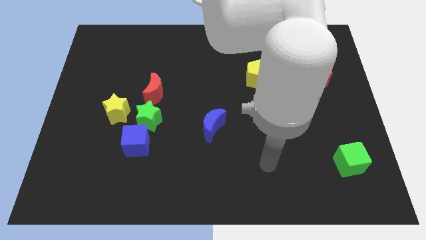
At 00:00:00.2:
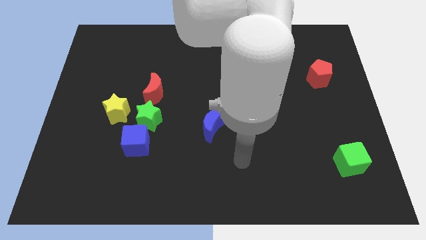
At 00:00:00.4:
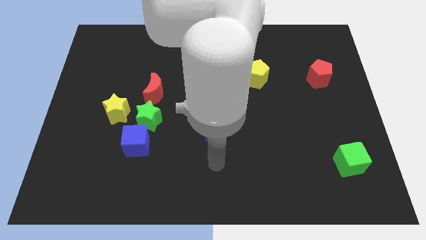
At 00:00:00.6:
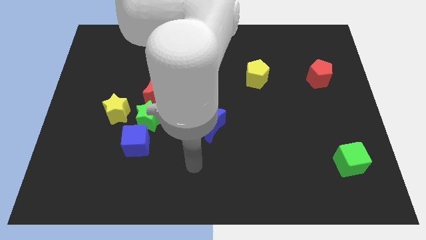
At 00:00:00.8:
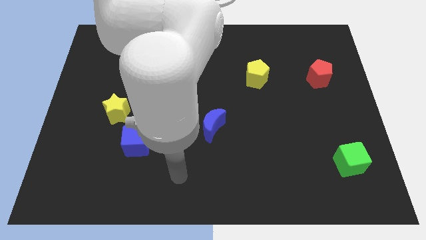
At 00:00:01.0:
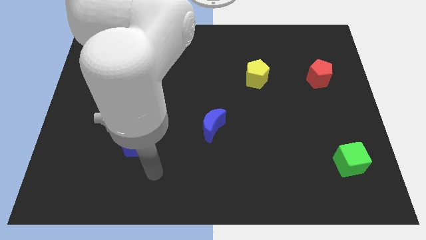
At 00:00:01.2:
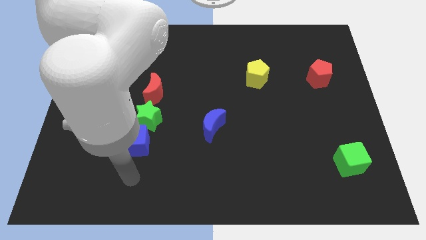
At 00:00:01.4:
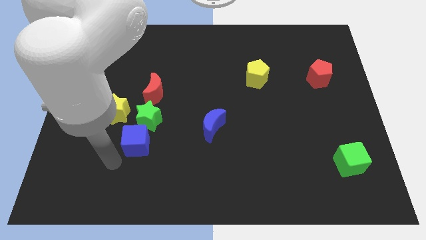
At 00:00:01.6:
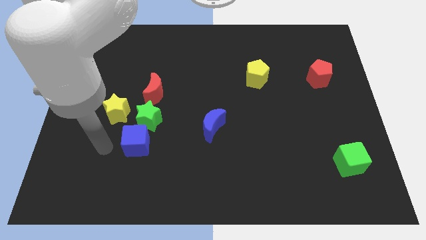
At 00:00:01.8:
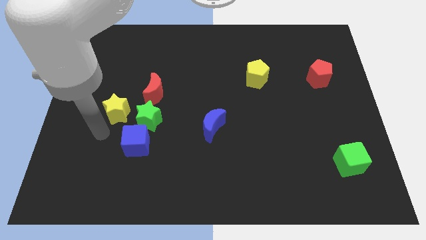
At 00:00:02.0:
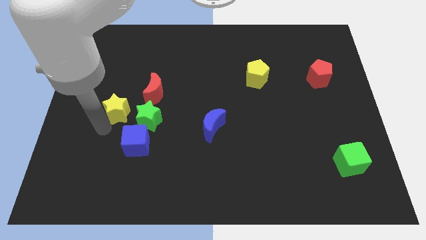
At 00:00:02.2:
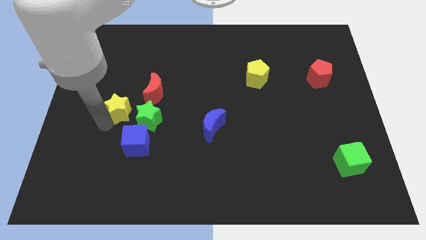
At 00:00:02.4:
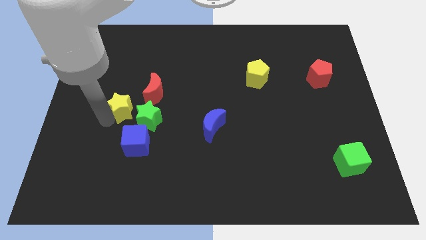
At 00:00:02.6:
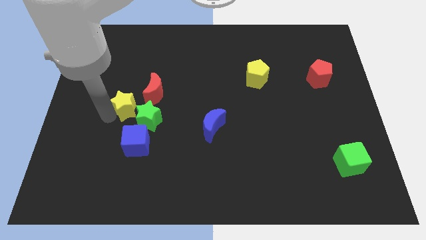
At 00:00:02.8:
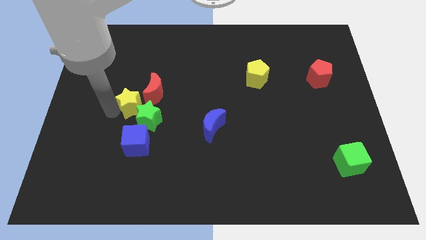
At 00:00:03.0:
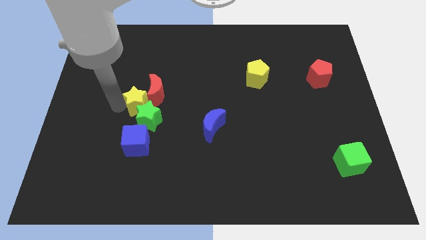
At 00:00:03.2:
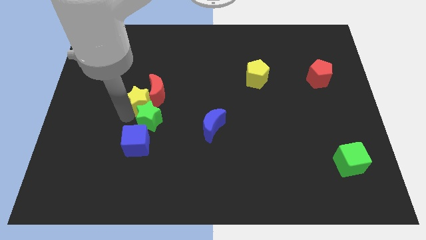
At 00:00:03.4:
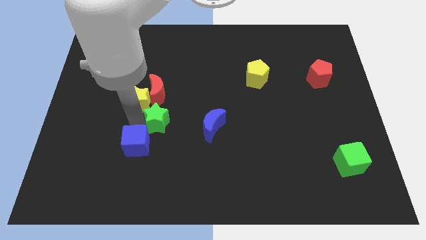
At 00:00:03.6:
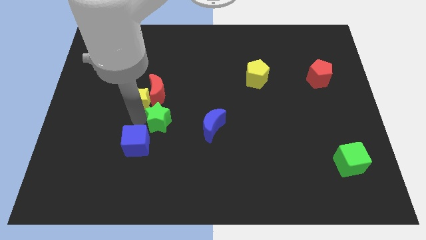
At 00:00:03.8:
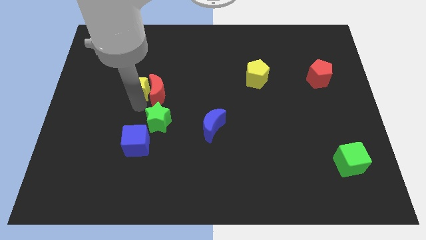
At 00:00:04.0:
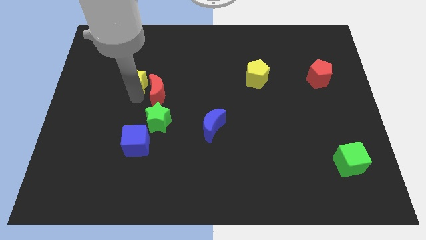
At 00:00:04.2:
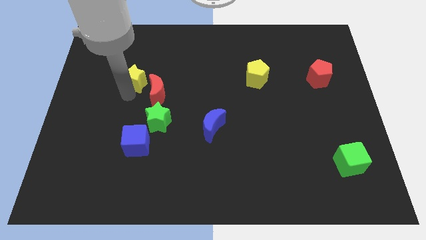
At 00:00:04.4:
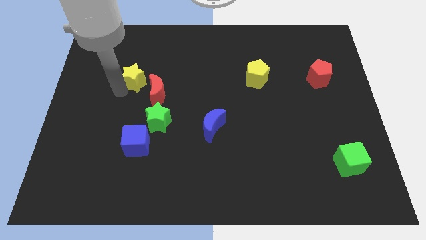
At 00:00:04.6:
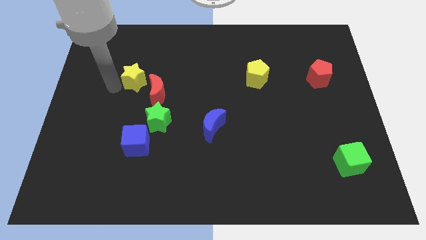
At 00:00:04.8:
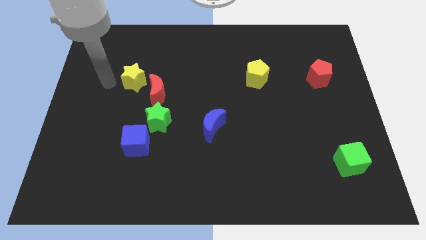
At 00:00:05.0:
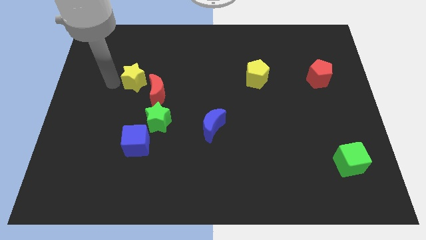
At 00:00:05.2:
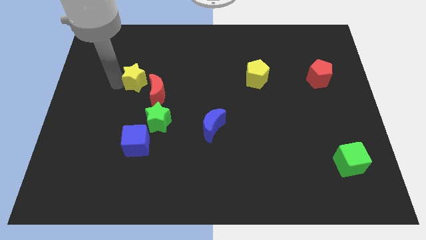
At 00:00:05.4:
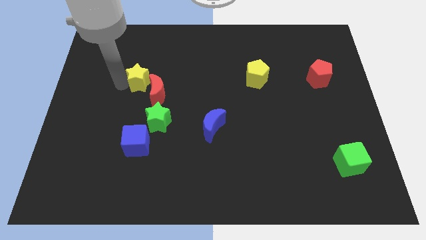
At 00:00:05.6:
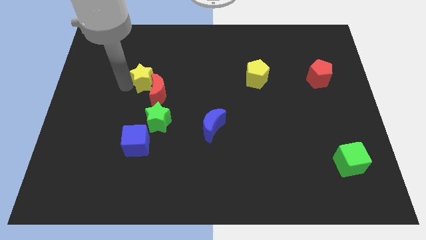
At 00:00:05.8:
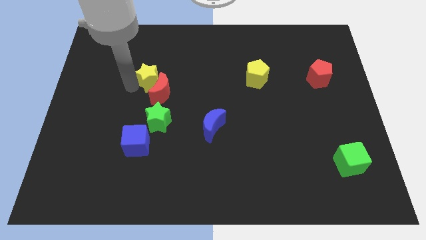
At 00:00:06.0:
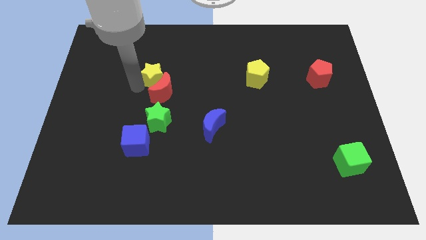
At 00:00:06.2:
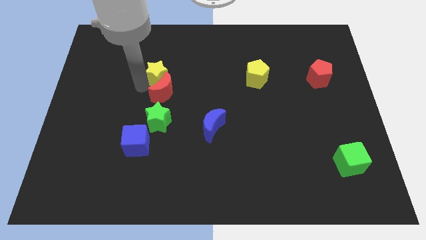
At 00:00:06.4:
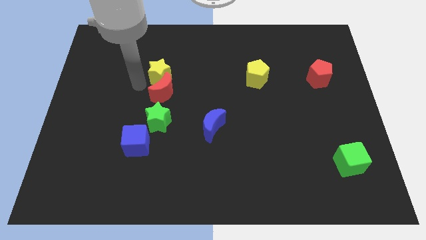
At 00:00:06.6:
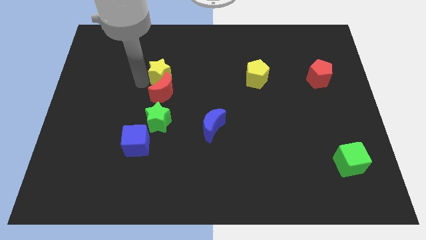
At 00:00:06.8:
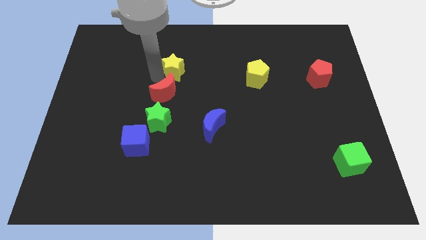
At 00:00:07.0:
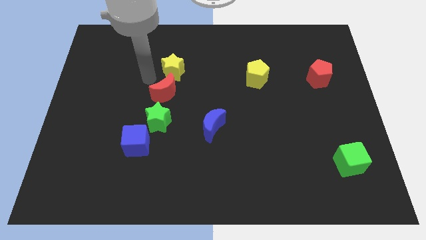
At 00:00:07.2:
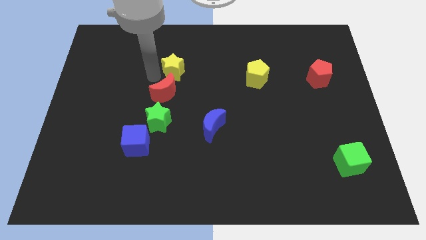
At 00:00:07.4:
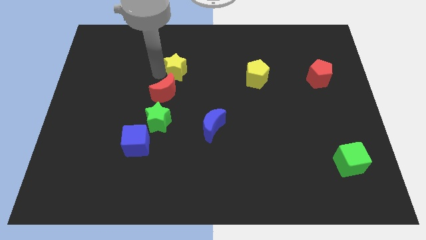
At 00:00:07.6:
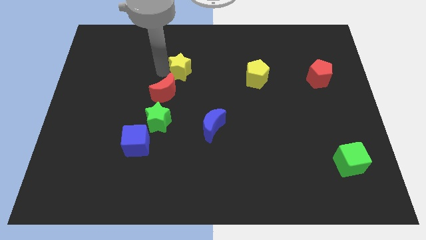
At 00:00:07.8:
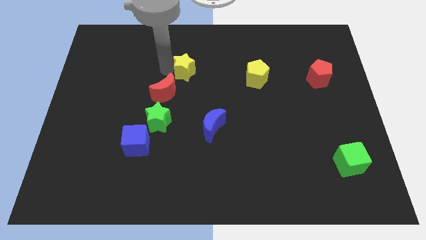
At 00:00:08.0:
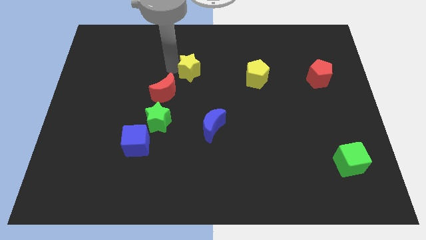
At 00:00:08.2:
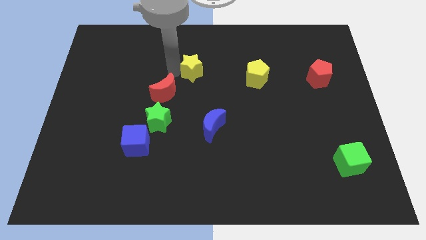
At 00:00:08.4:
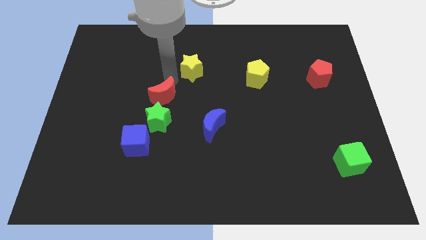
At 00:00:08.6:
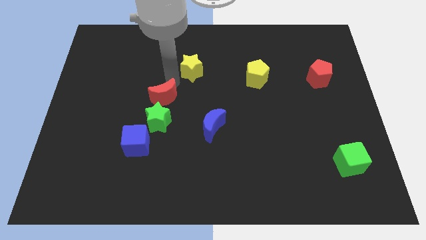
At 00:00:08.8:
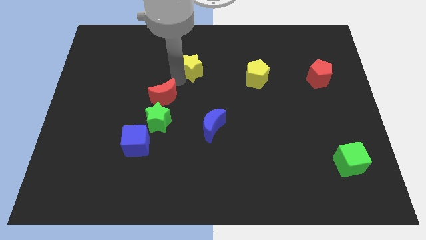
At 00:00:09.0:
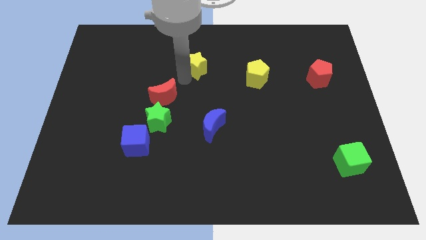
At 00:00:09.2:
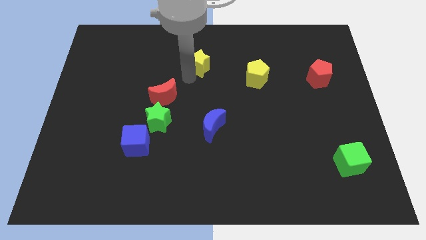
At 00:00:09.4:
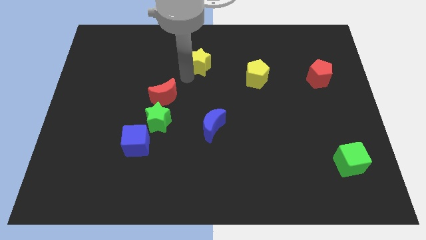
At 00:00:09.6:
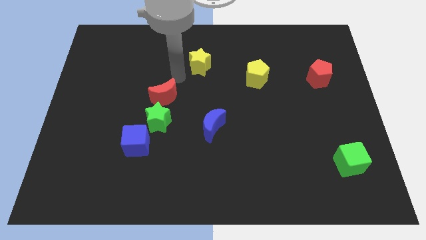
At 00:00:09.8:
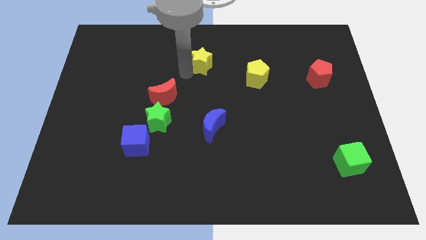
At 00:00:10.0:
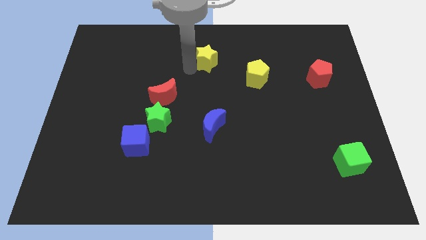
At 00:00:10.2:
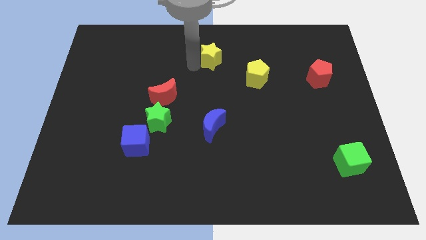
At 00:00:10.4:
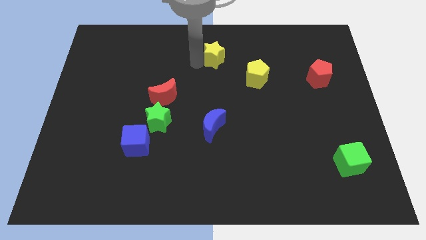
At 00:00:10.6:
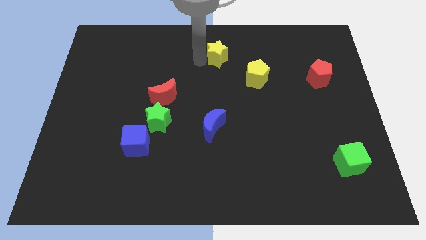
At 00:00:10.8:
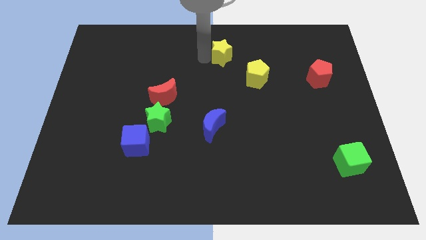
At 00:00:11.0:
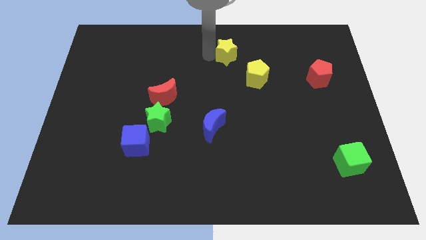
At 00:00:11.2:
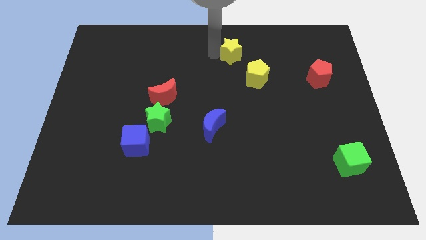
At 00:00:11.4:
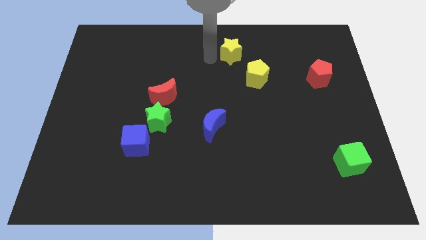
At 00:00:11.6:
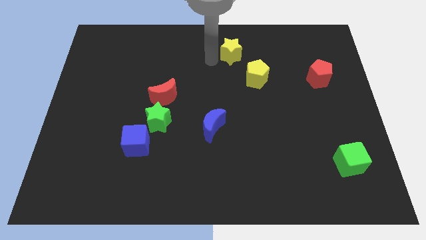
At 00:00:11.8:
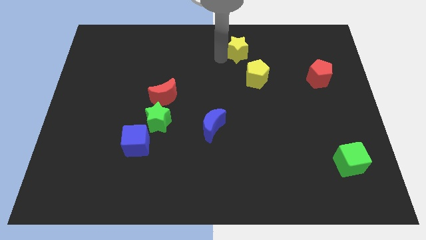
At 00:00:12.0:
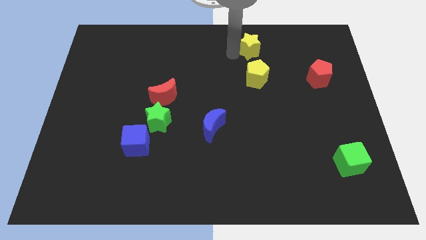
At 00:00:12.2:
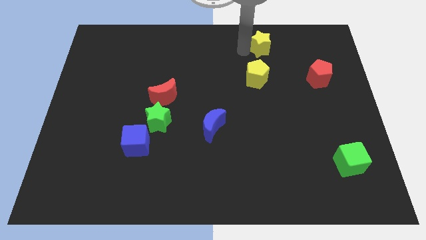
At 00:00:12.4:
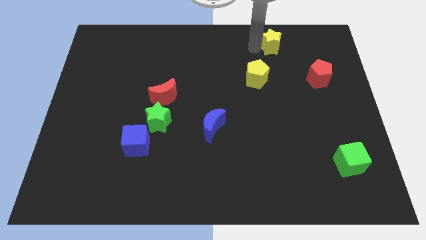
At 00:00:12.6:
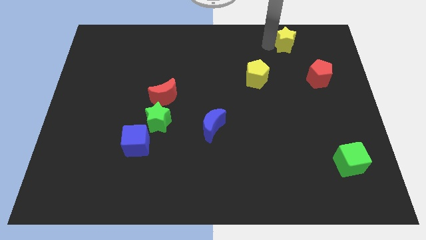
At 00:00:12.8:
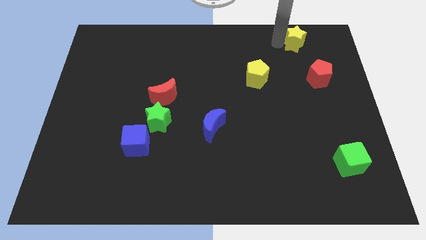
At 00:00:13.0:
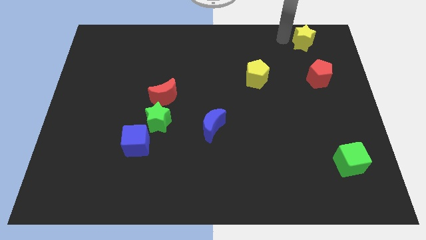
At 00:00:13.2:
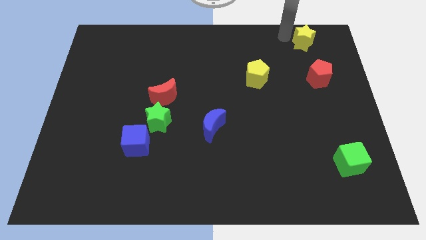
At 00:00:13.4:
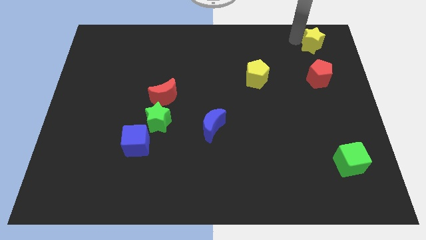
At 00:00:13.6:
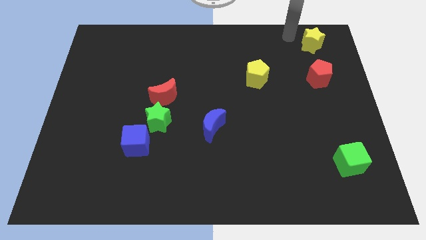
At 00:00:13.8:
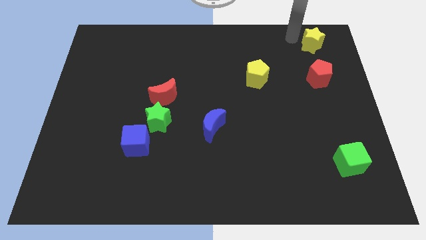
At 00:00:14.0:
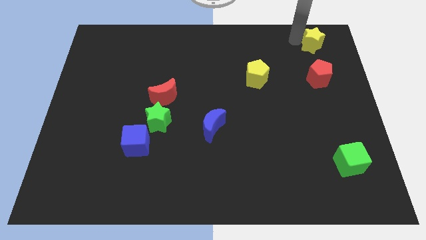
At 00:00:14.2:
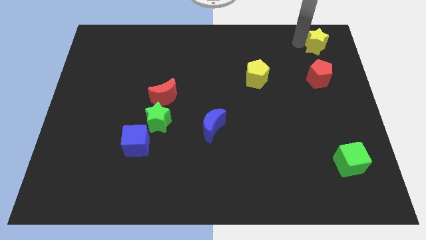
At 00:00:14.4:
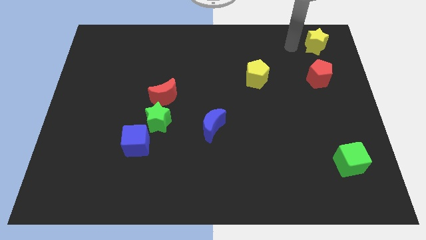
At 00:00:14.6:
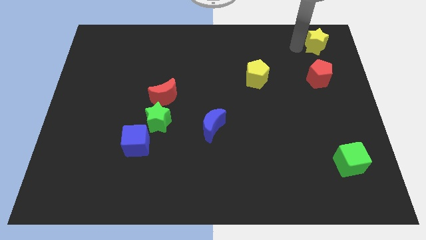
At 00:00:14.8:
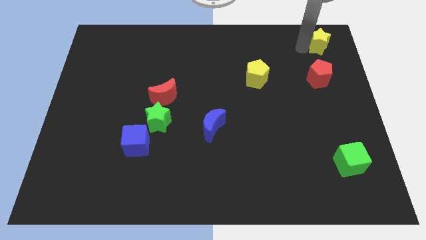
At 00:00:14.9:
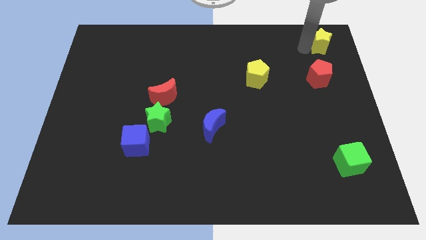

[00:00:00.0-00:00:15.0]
move the yellow star to the top right corner
